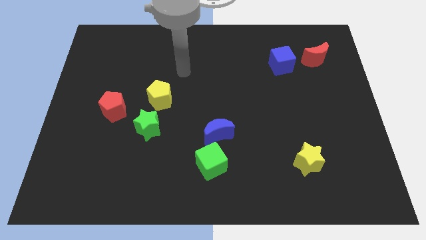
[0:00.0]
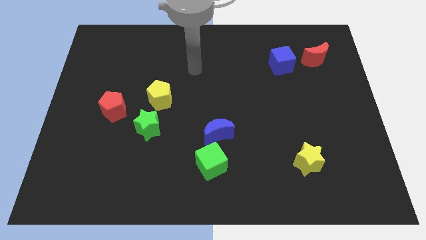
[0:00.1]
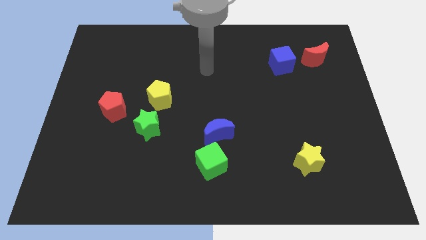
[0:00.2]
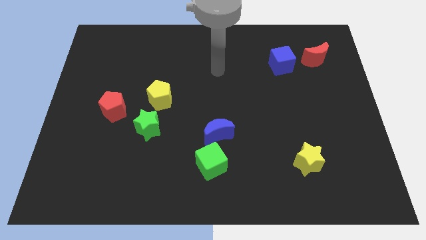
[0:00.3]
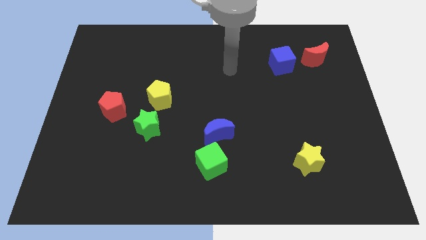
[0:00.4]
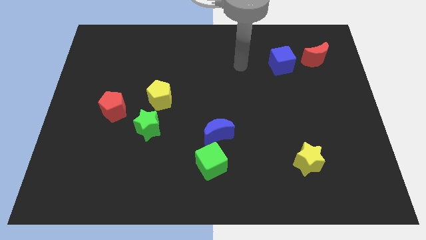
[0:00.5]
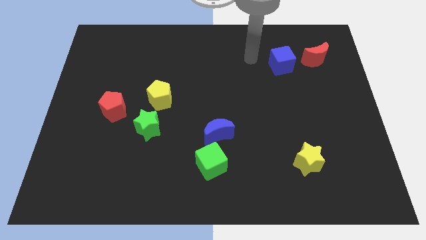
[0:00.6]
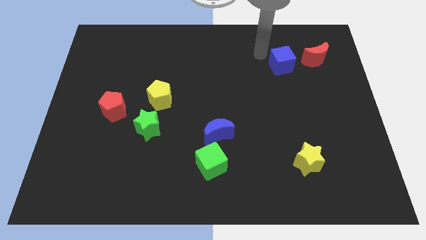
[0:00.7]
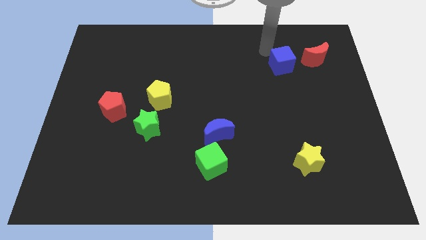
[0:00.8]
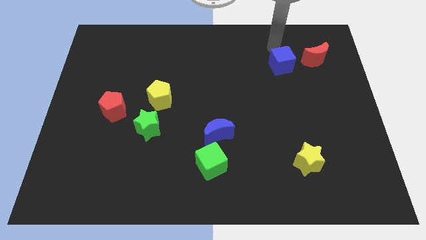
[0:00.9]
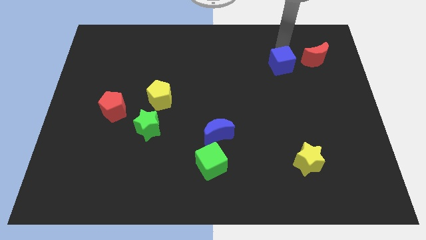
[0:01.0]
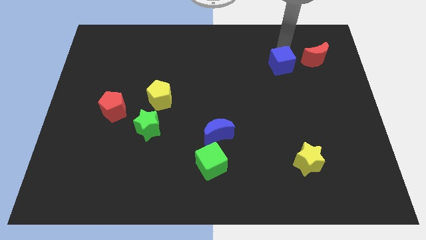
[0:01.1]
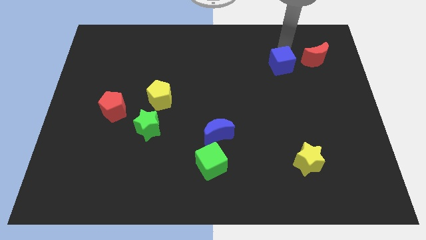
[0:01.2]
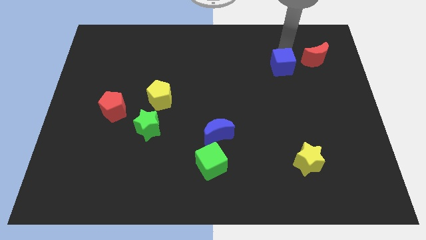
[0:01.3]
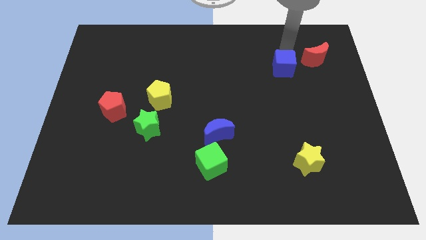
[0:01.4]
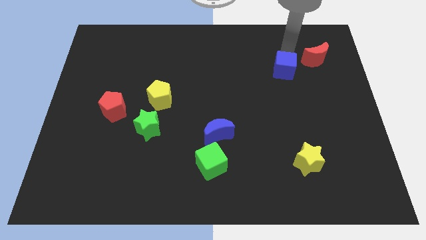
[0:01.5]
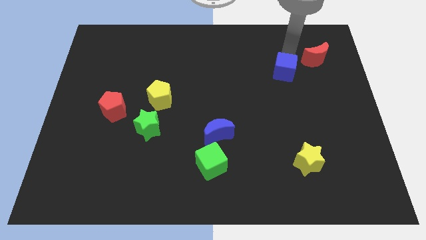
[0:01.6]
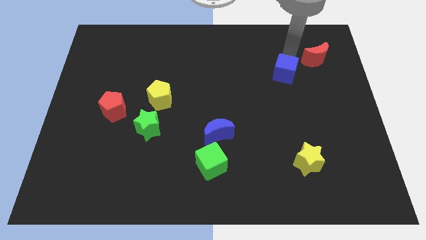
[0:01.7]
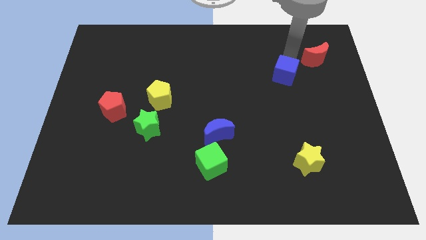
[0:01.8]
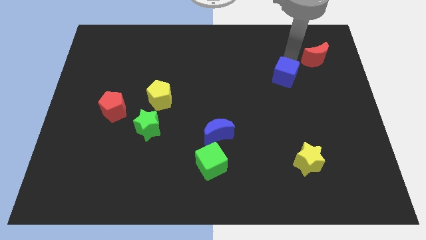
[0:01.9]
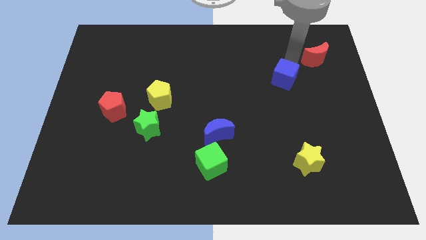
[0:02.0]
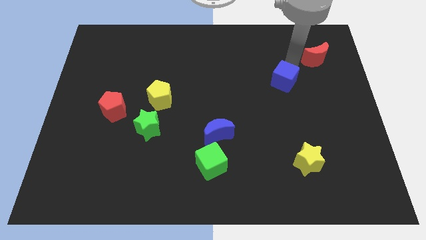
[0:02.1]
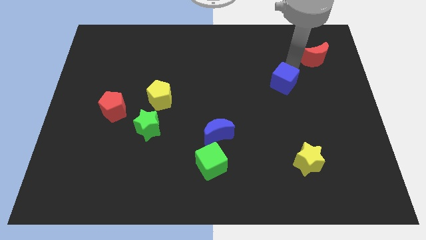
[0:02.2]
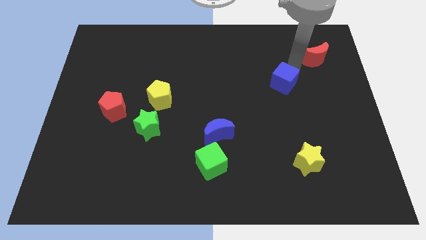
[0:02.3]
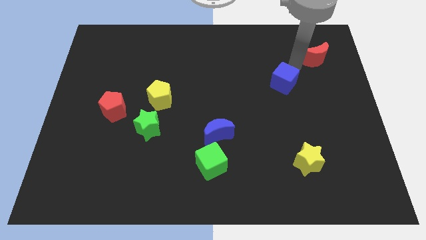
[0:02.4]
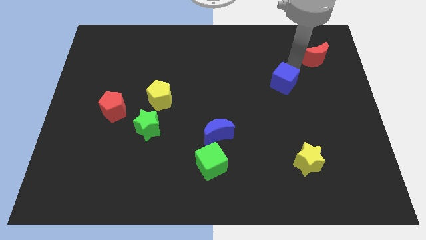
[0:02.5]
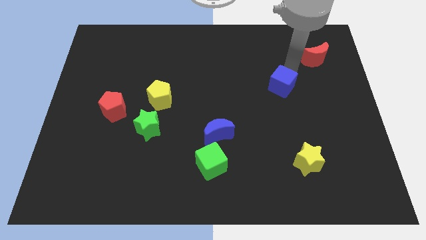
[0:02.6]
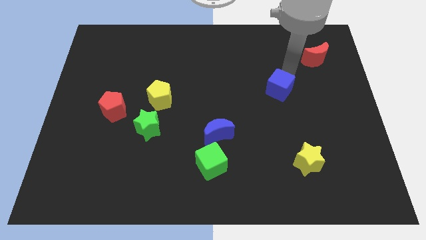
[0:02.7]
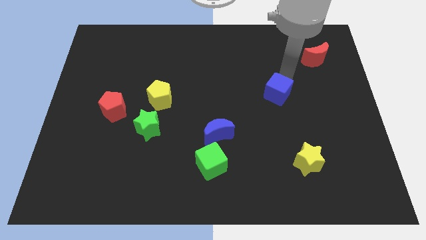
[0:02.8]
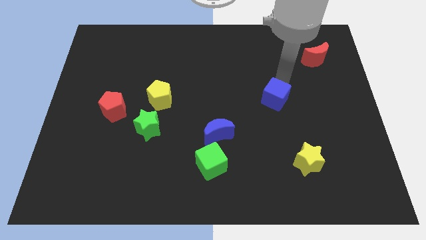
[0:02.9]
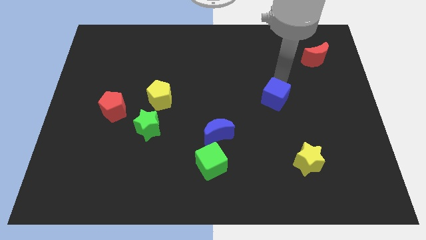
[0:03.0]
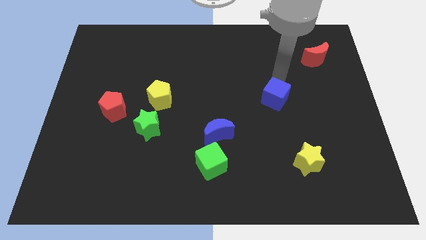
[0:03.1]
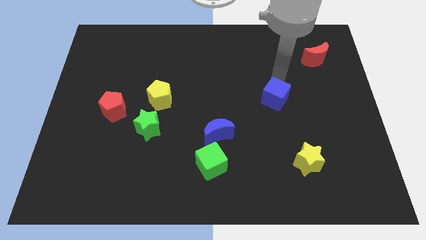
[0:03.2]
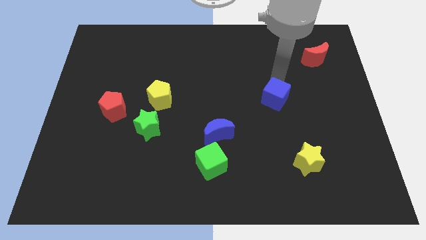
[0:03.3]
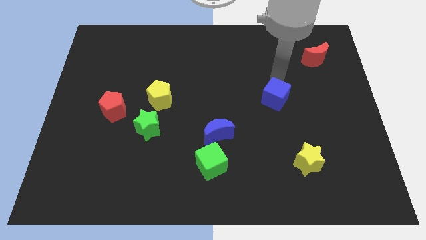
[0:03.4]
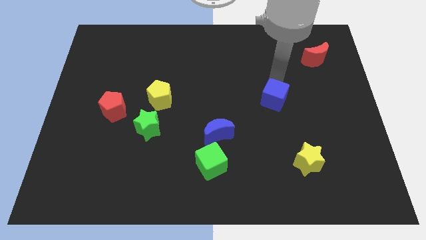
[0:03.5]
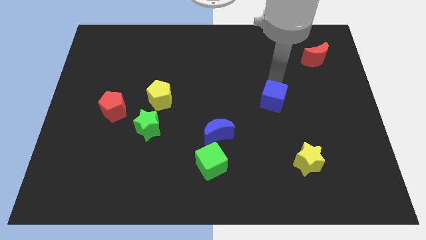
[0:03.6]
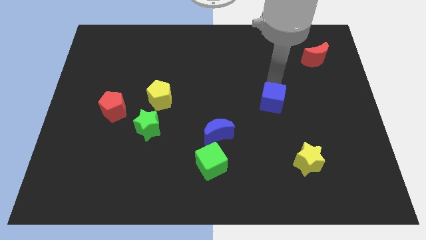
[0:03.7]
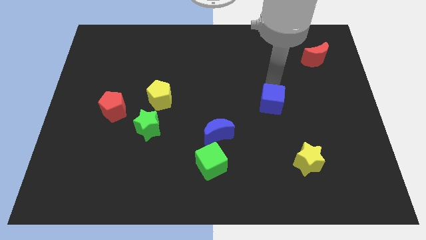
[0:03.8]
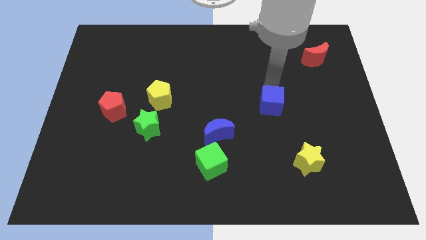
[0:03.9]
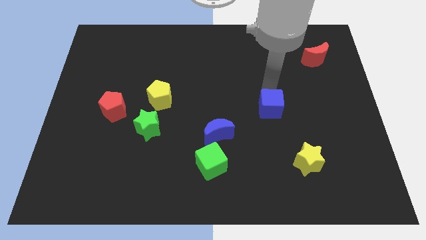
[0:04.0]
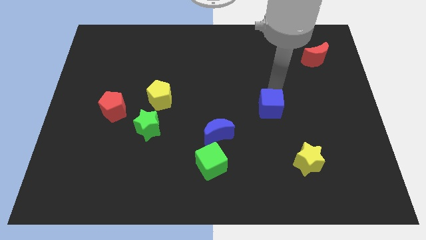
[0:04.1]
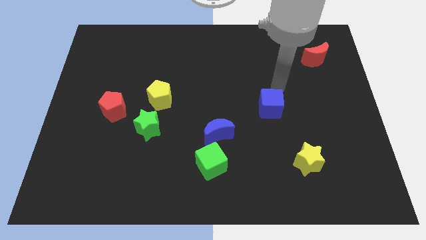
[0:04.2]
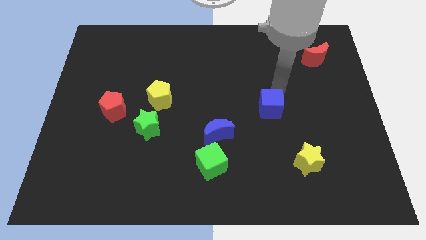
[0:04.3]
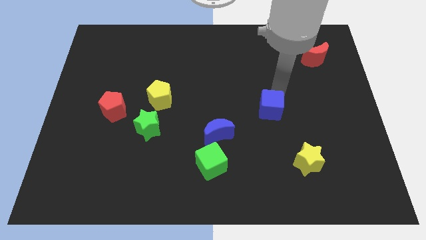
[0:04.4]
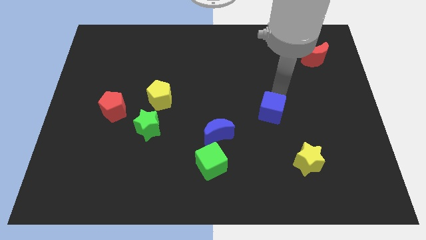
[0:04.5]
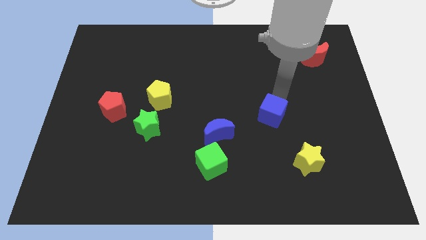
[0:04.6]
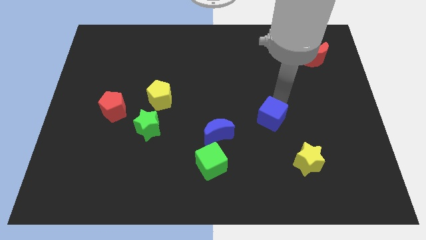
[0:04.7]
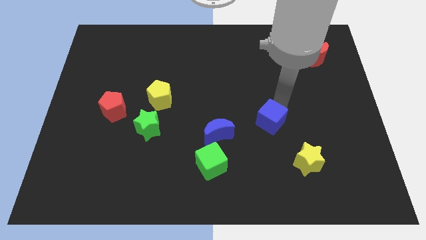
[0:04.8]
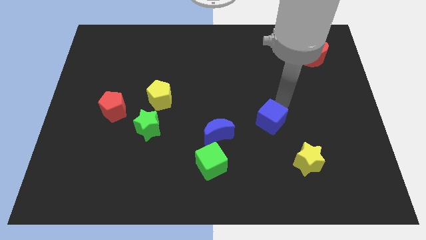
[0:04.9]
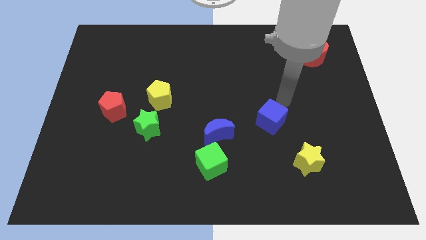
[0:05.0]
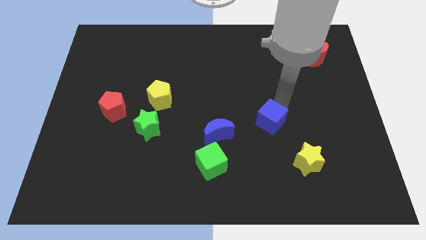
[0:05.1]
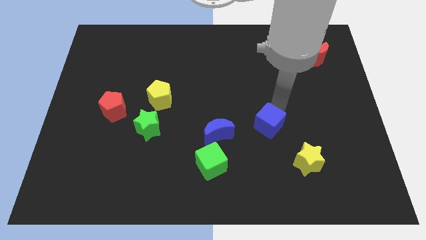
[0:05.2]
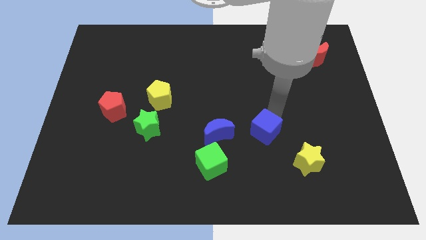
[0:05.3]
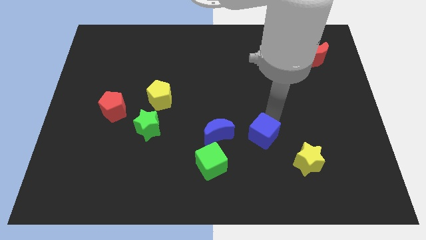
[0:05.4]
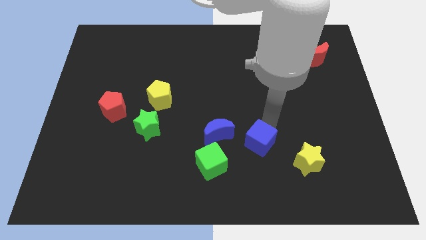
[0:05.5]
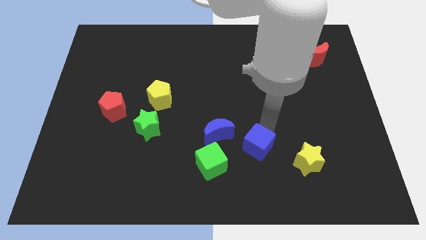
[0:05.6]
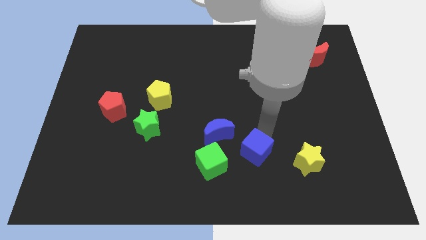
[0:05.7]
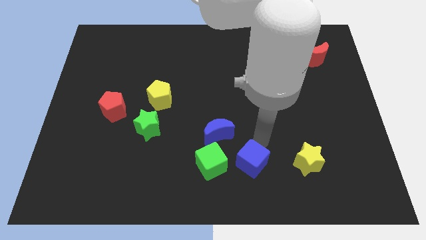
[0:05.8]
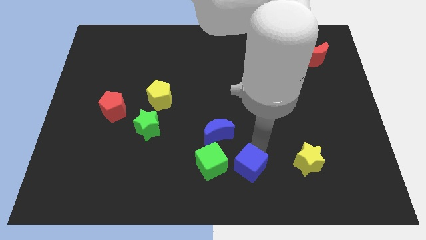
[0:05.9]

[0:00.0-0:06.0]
push the blue cube to the bottom
